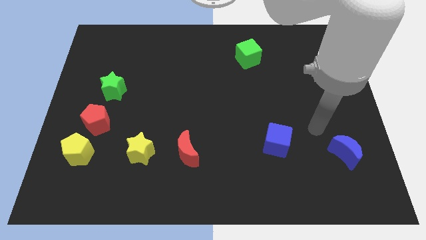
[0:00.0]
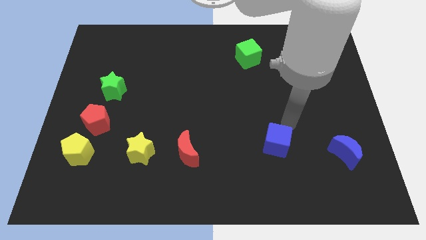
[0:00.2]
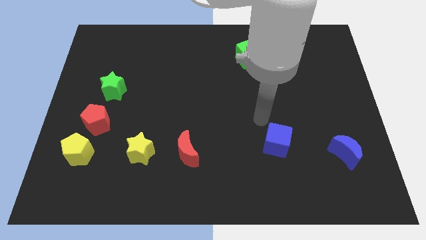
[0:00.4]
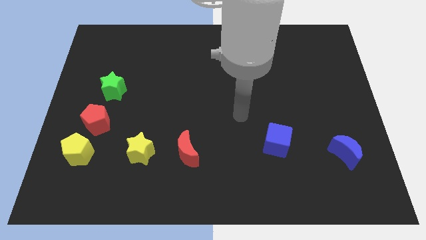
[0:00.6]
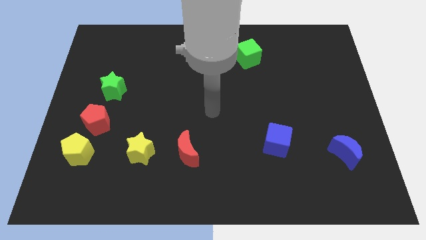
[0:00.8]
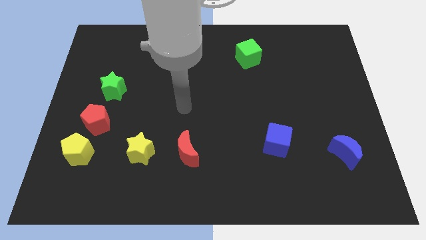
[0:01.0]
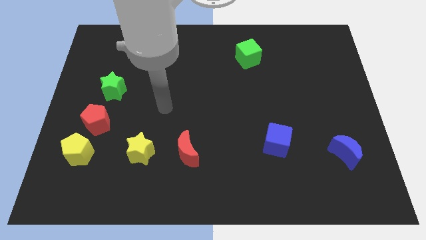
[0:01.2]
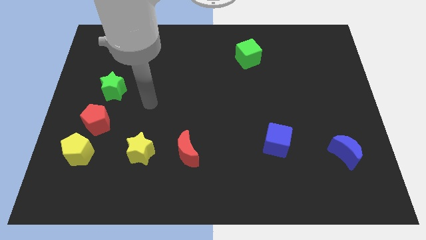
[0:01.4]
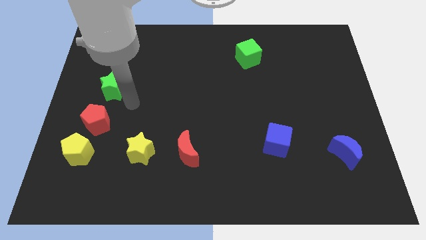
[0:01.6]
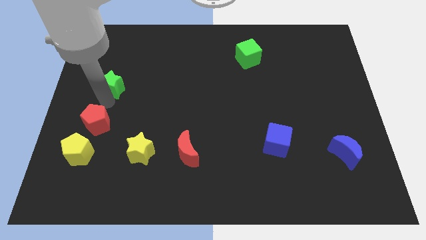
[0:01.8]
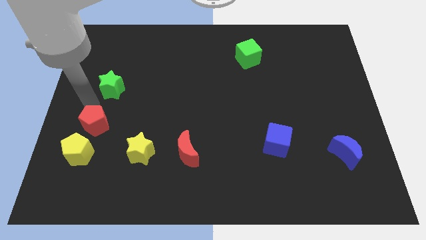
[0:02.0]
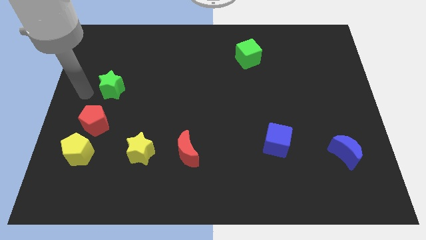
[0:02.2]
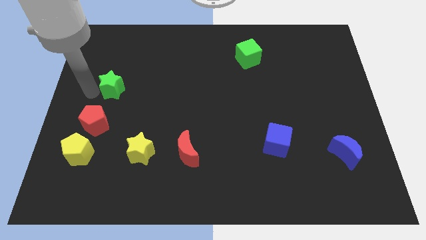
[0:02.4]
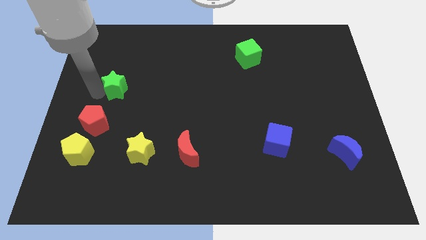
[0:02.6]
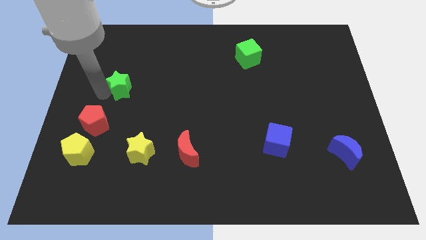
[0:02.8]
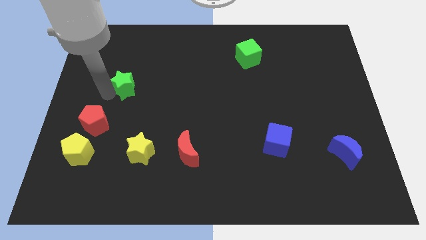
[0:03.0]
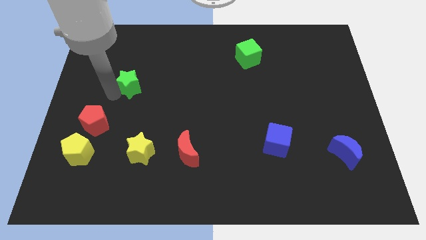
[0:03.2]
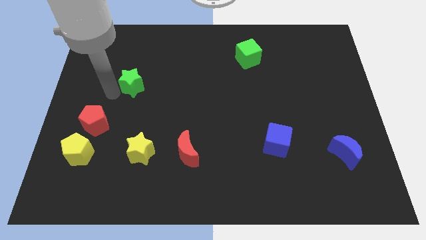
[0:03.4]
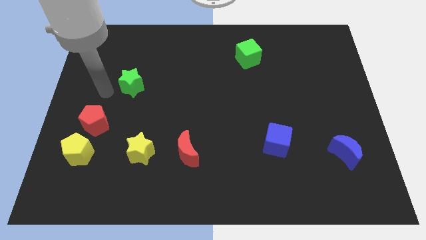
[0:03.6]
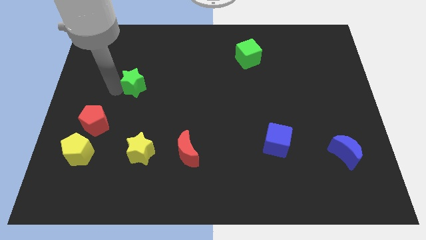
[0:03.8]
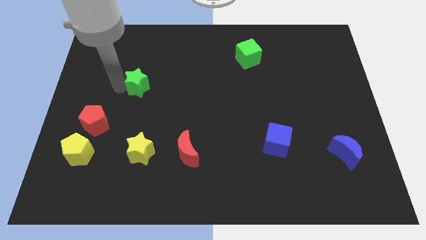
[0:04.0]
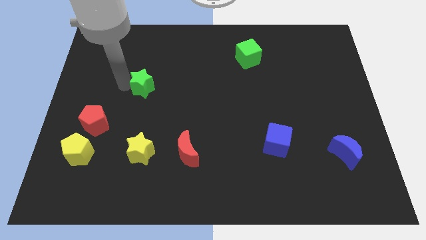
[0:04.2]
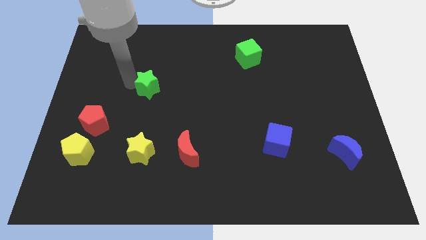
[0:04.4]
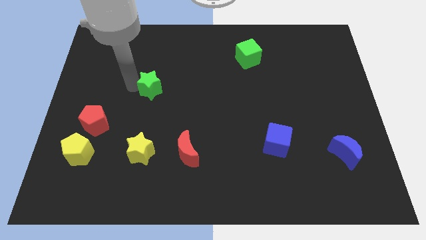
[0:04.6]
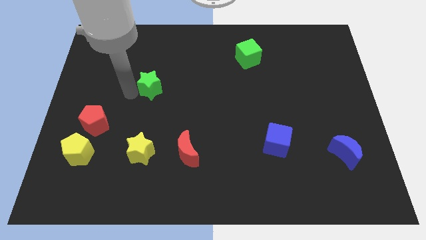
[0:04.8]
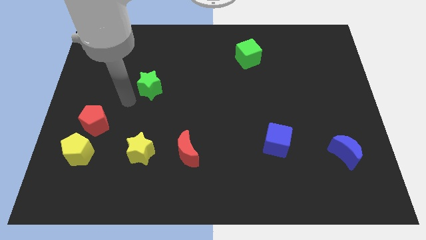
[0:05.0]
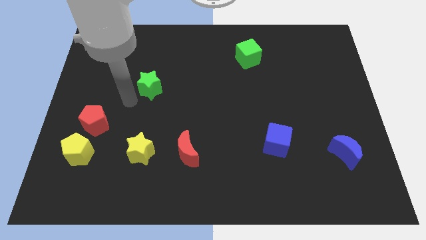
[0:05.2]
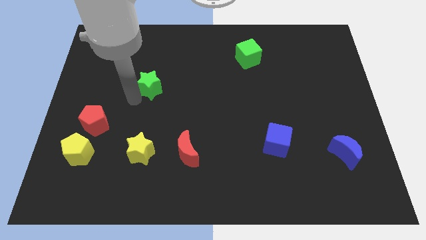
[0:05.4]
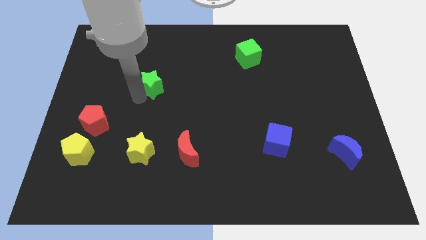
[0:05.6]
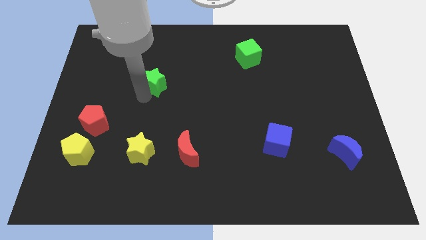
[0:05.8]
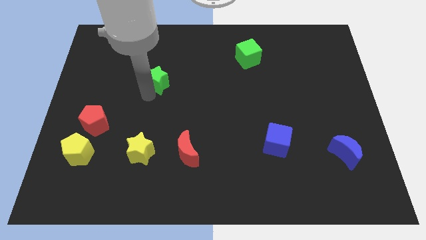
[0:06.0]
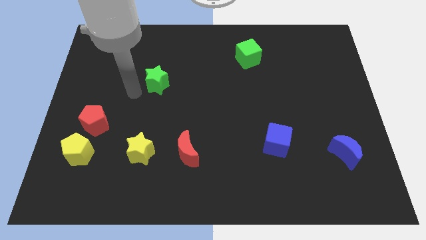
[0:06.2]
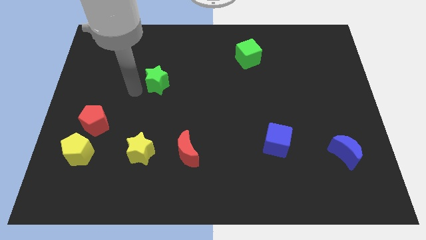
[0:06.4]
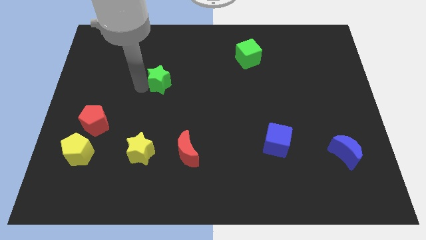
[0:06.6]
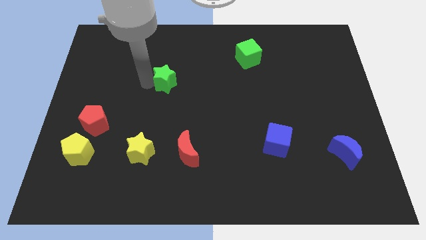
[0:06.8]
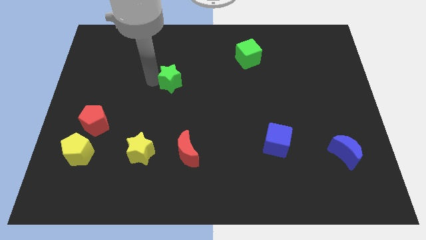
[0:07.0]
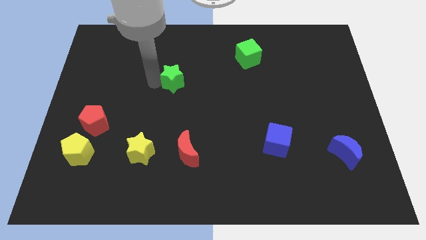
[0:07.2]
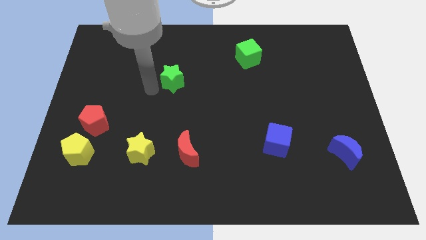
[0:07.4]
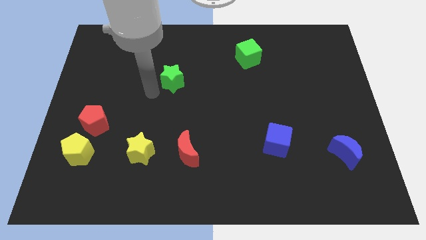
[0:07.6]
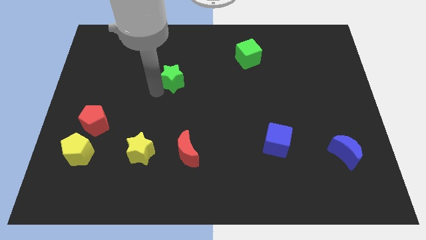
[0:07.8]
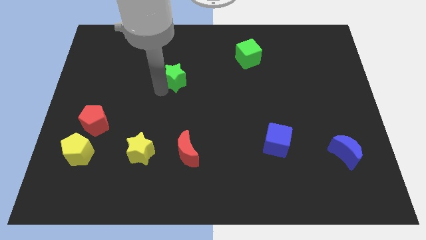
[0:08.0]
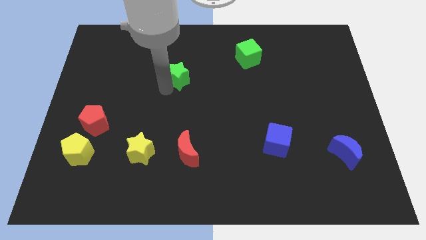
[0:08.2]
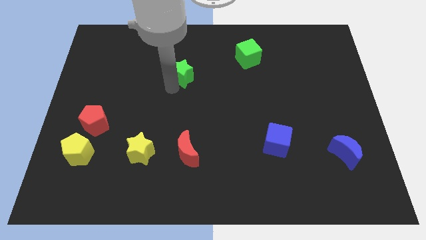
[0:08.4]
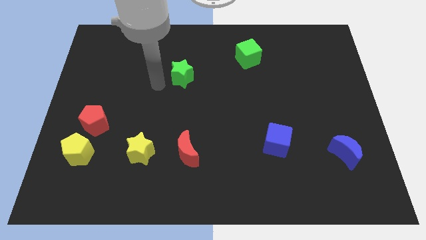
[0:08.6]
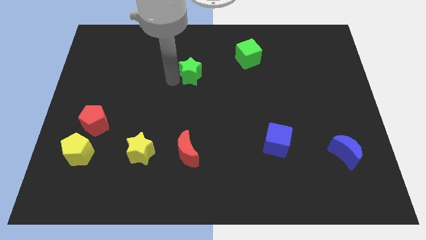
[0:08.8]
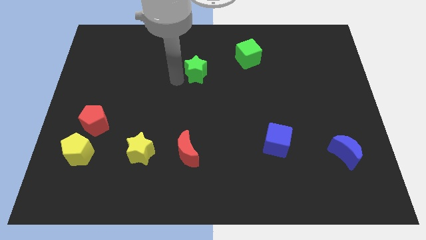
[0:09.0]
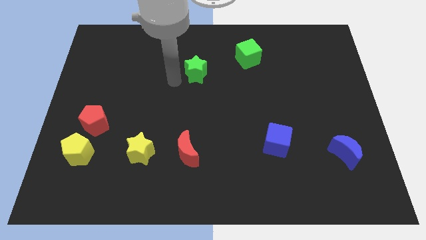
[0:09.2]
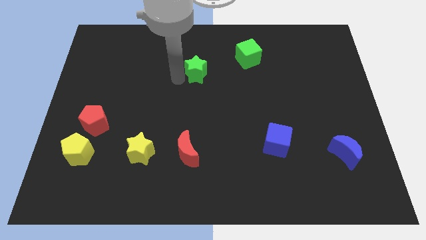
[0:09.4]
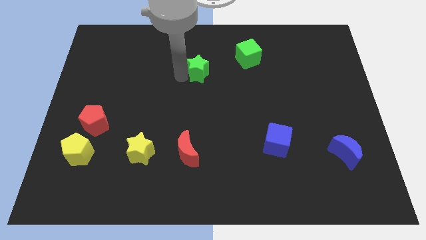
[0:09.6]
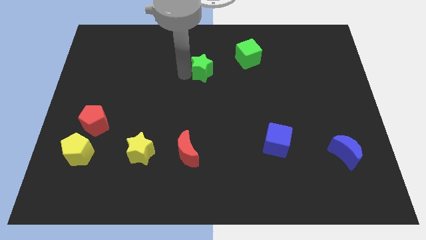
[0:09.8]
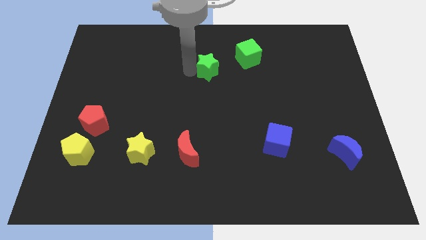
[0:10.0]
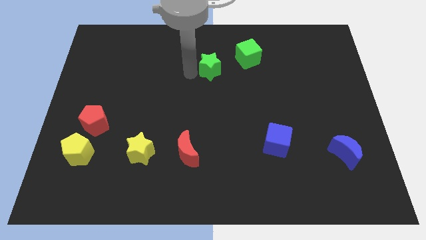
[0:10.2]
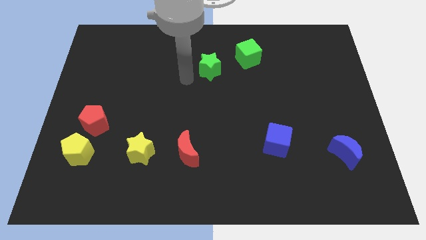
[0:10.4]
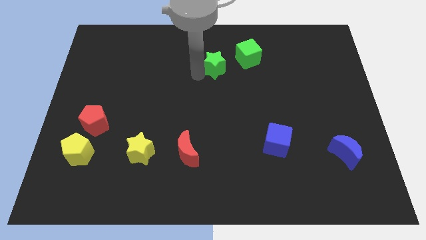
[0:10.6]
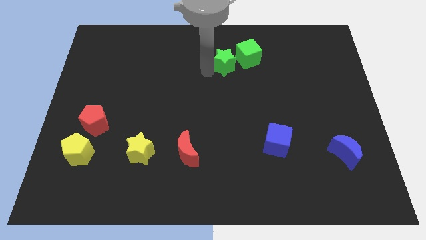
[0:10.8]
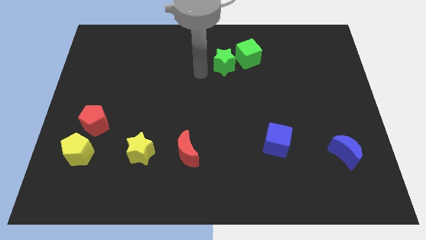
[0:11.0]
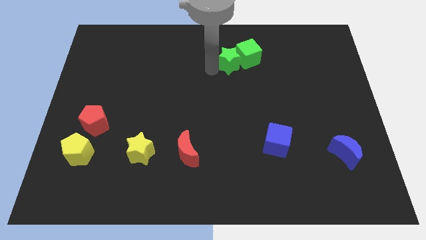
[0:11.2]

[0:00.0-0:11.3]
push the green star close to the green cube

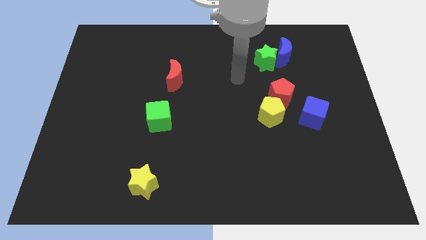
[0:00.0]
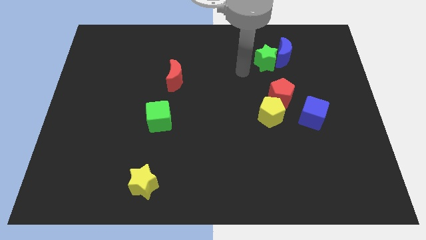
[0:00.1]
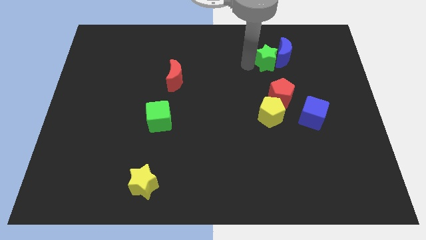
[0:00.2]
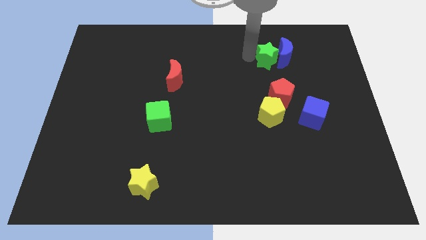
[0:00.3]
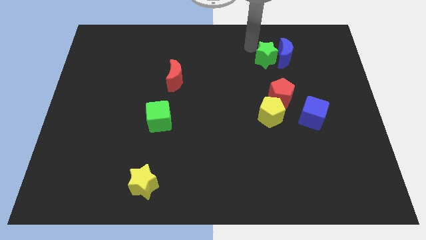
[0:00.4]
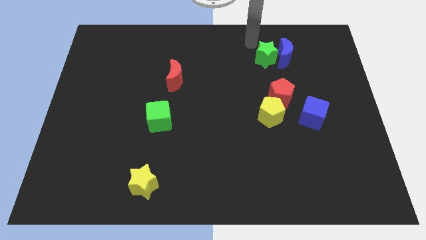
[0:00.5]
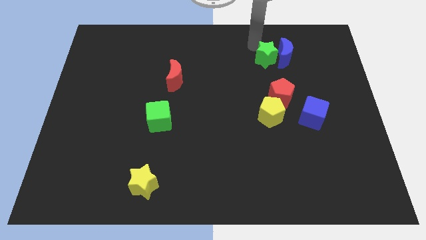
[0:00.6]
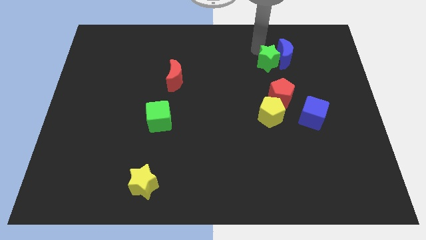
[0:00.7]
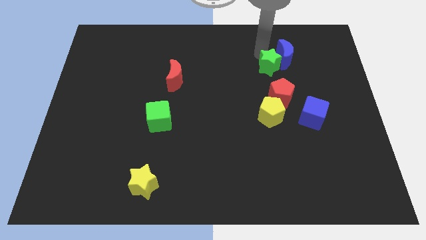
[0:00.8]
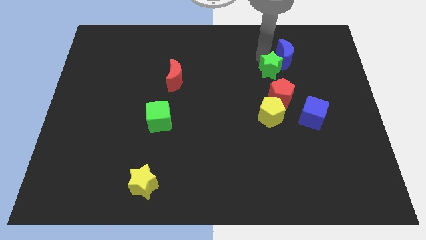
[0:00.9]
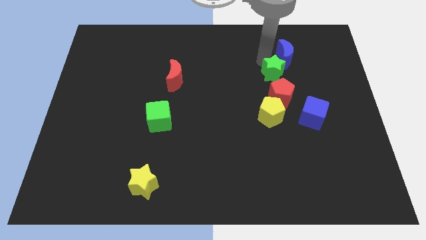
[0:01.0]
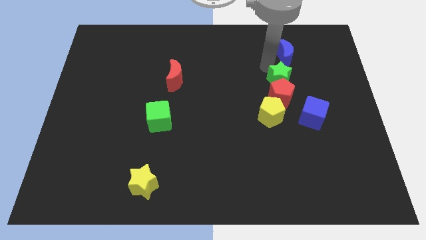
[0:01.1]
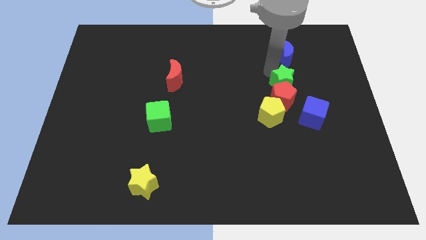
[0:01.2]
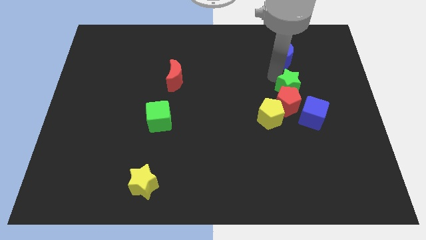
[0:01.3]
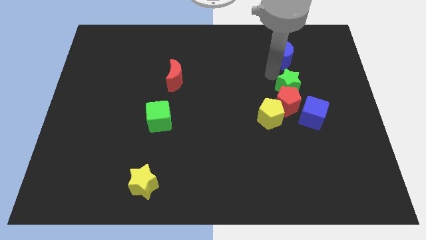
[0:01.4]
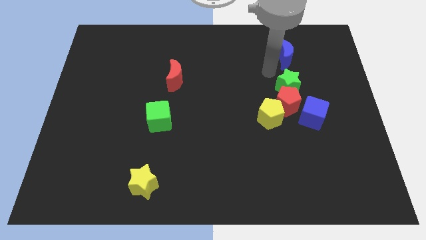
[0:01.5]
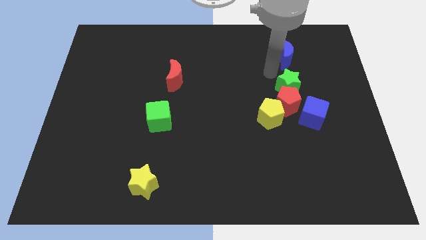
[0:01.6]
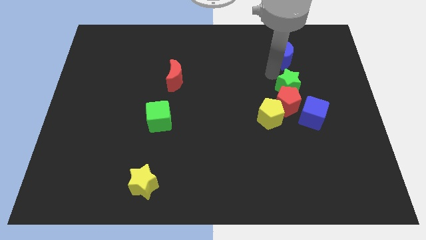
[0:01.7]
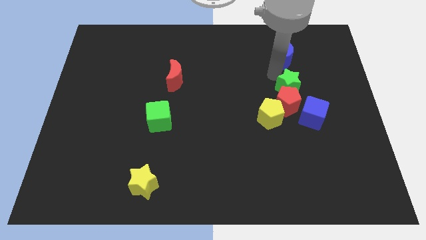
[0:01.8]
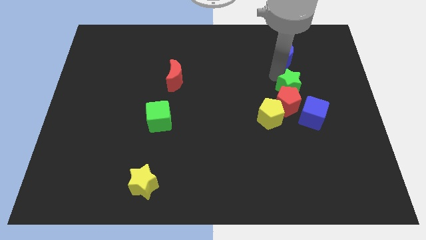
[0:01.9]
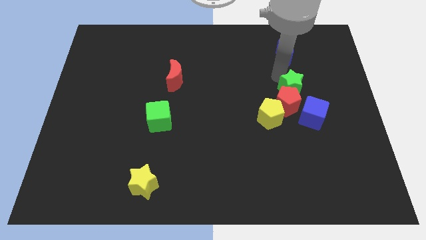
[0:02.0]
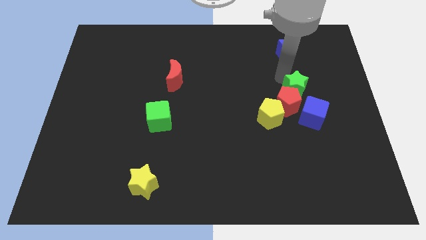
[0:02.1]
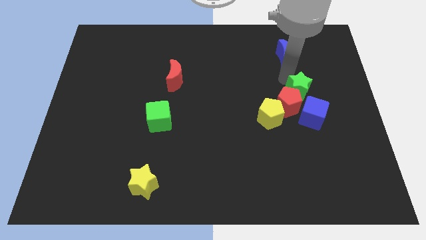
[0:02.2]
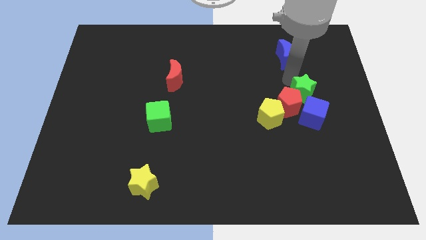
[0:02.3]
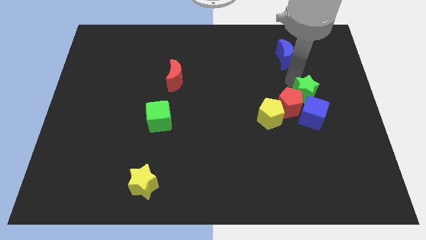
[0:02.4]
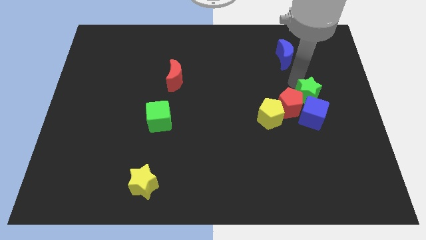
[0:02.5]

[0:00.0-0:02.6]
put the green star to the blue cube
